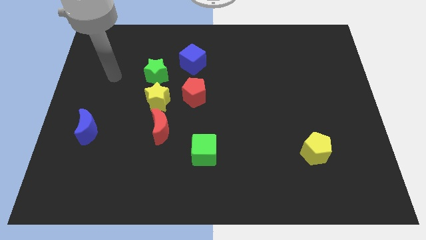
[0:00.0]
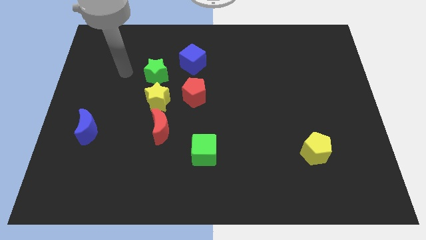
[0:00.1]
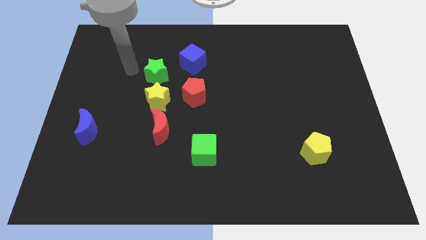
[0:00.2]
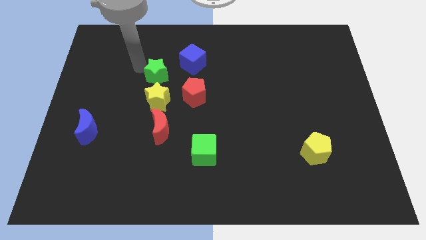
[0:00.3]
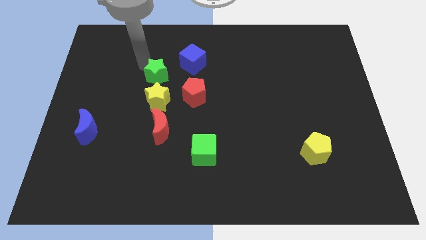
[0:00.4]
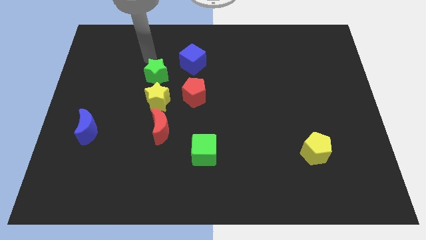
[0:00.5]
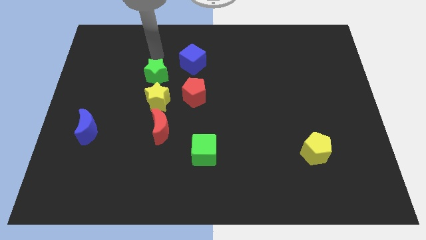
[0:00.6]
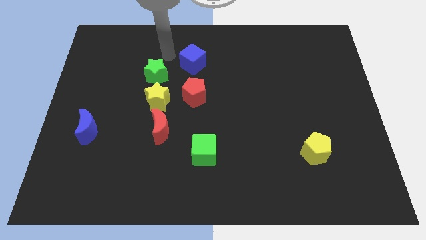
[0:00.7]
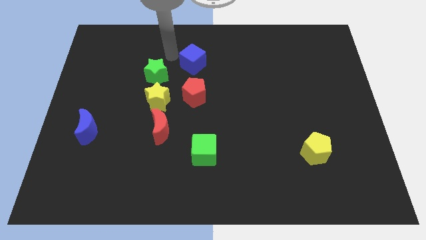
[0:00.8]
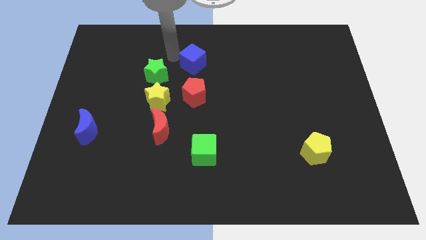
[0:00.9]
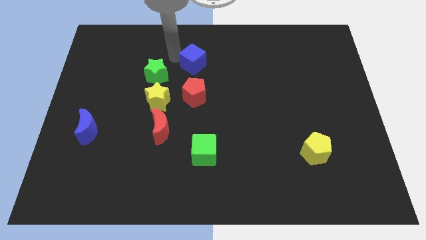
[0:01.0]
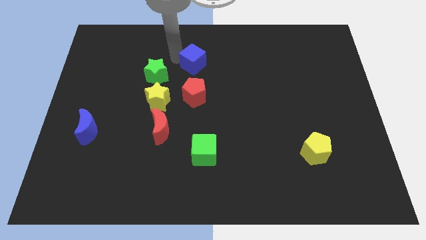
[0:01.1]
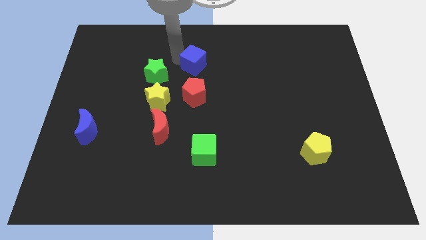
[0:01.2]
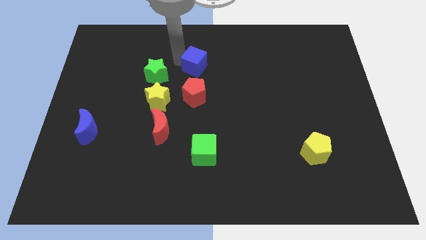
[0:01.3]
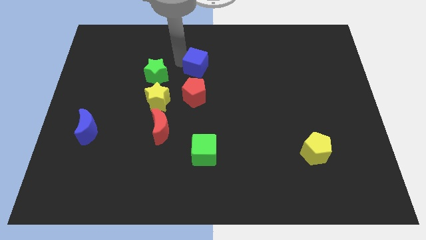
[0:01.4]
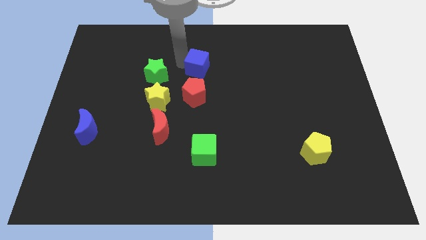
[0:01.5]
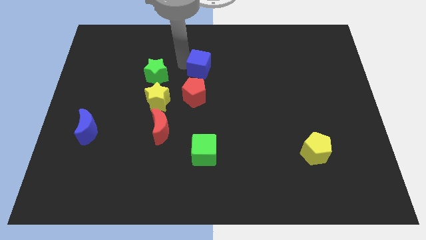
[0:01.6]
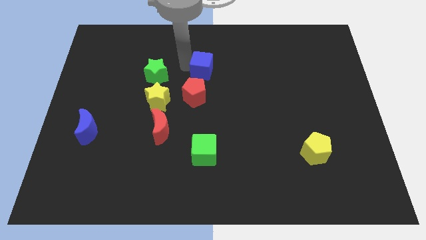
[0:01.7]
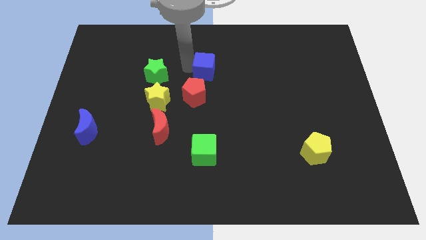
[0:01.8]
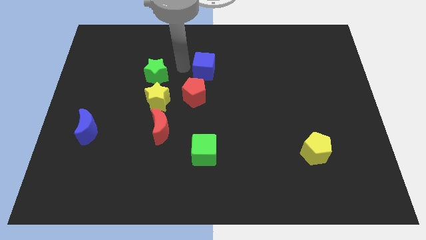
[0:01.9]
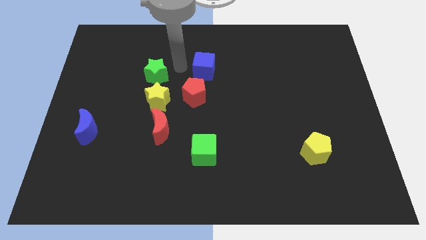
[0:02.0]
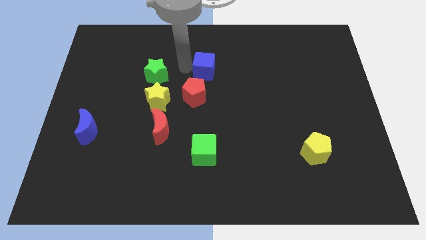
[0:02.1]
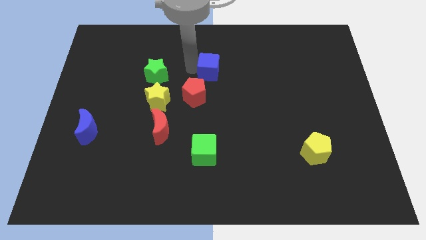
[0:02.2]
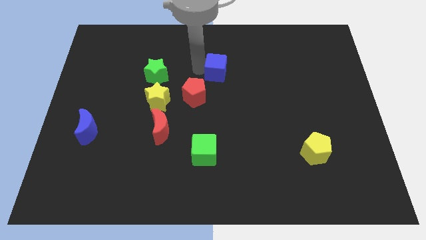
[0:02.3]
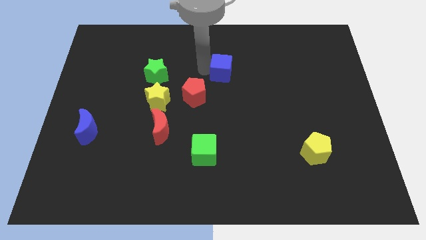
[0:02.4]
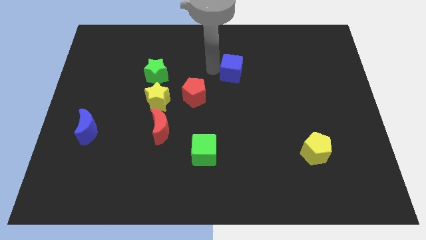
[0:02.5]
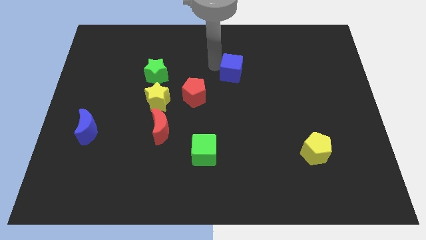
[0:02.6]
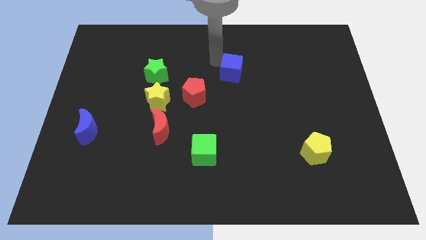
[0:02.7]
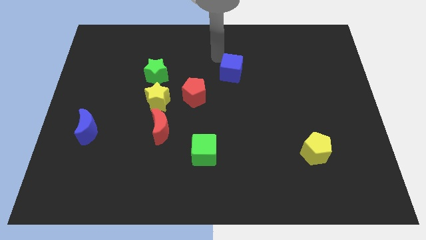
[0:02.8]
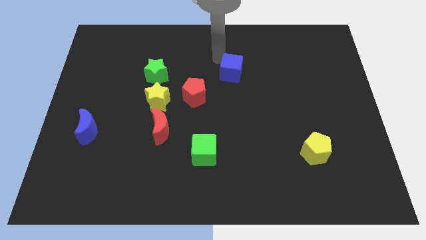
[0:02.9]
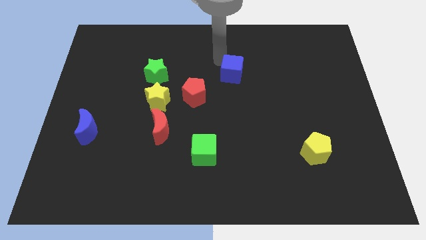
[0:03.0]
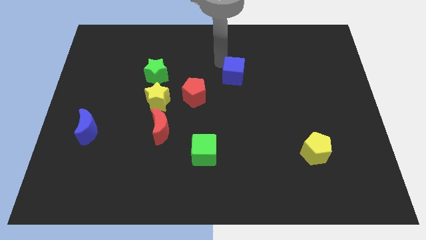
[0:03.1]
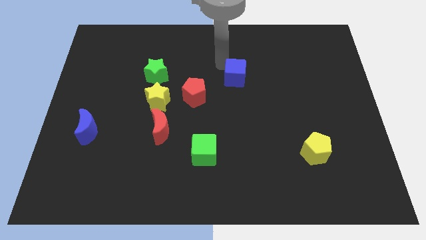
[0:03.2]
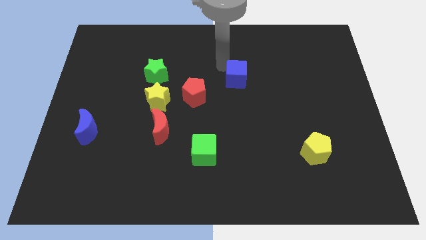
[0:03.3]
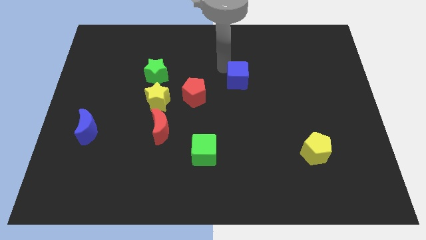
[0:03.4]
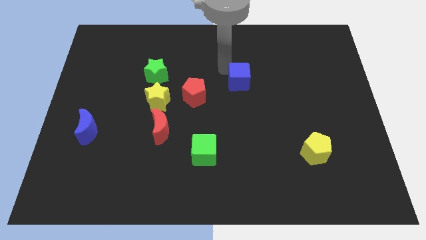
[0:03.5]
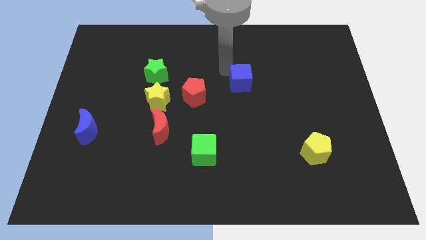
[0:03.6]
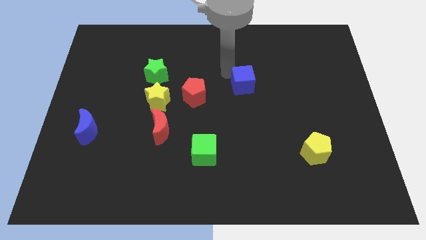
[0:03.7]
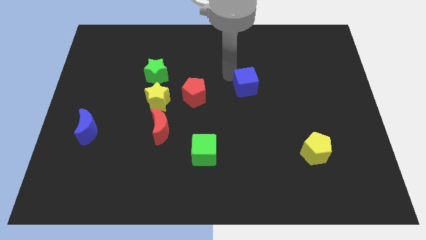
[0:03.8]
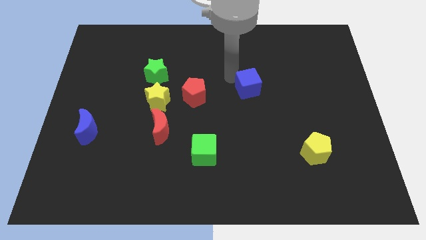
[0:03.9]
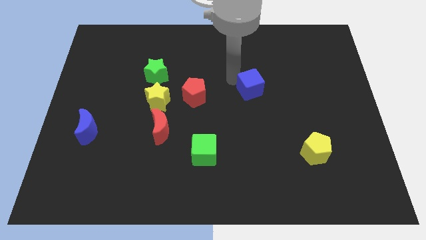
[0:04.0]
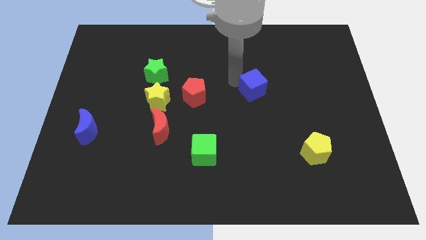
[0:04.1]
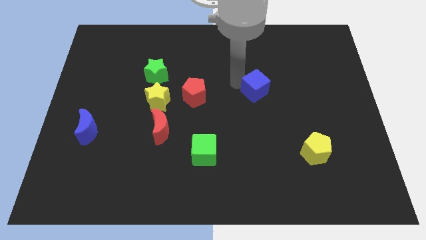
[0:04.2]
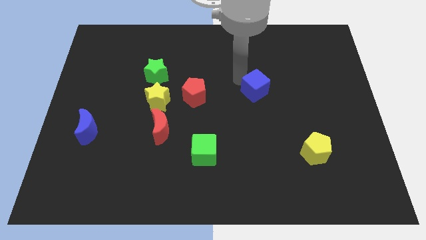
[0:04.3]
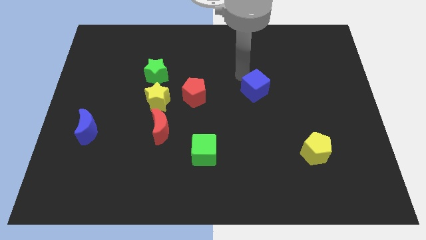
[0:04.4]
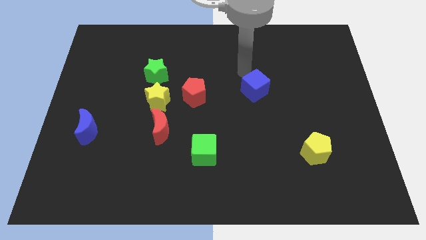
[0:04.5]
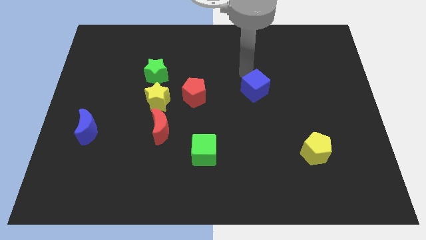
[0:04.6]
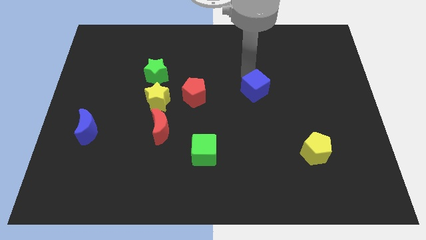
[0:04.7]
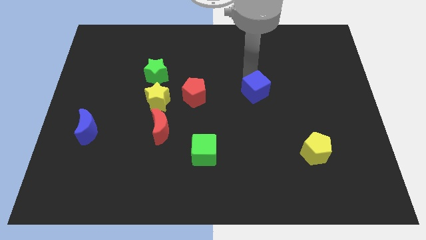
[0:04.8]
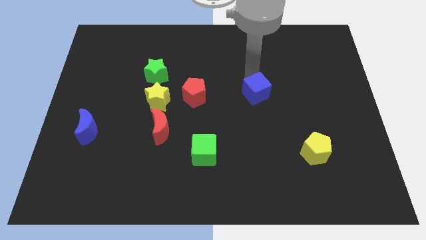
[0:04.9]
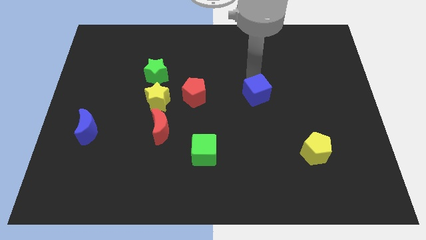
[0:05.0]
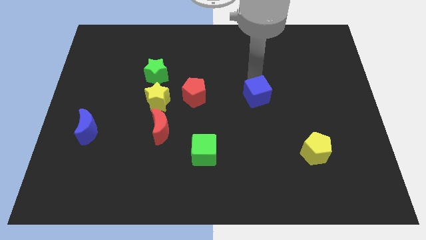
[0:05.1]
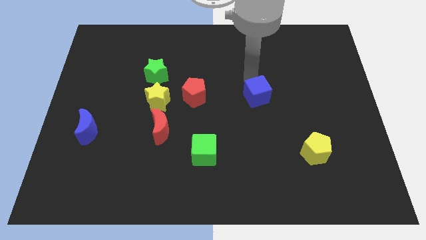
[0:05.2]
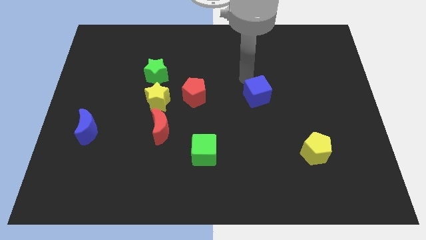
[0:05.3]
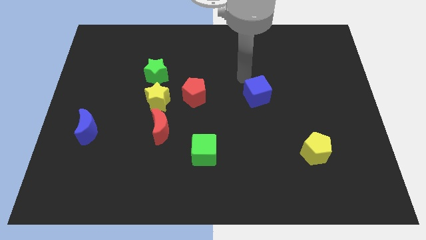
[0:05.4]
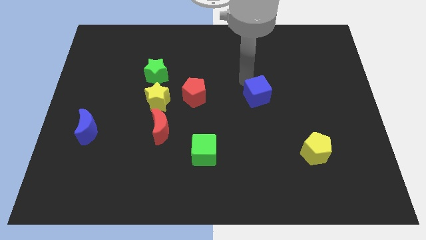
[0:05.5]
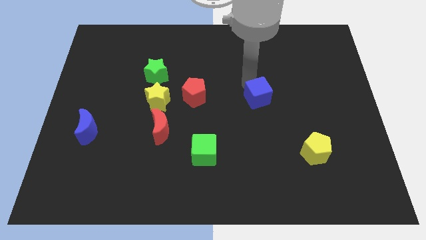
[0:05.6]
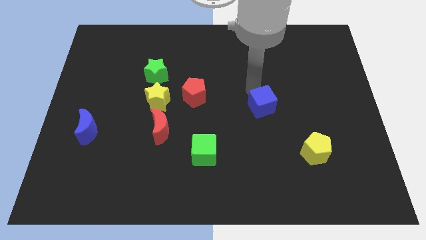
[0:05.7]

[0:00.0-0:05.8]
move the blue cube down and right

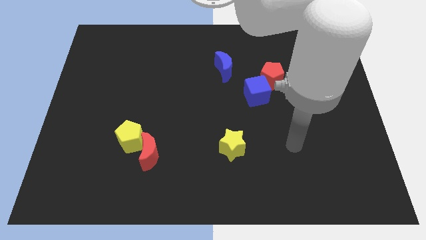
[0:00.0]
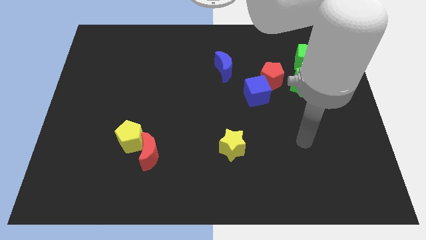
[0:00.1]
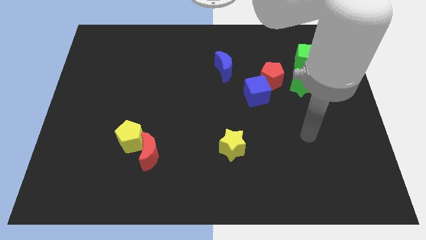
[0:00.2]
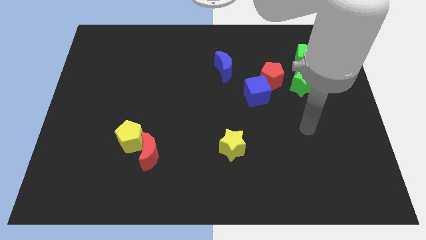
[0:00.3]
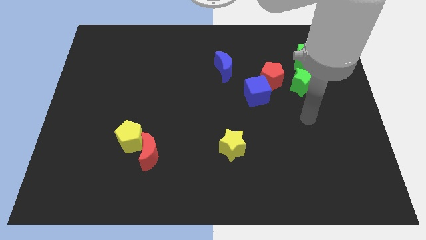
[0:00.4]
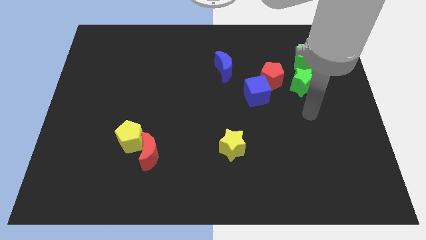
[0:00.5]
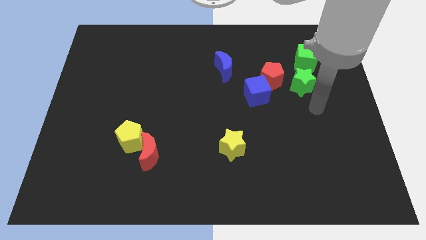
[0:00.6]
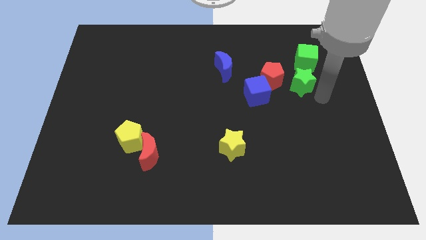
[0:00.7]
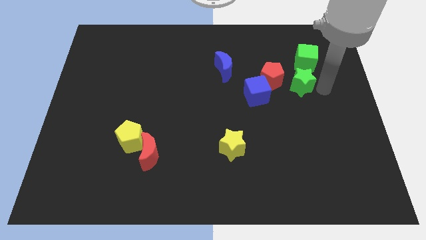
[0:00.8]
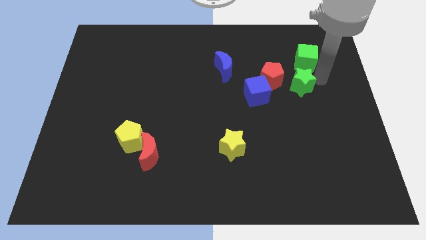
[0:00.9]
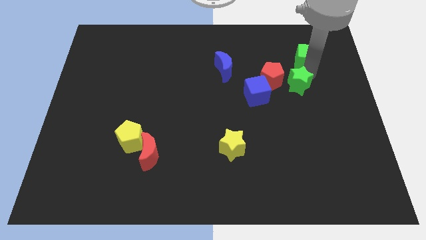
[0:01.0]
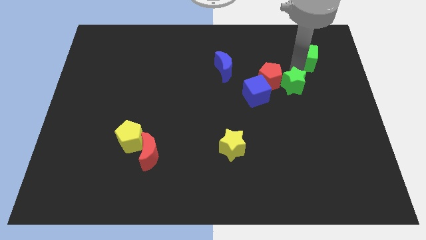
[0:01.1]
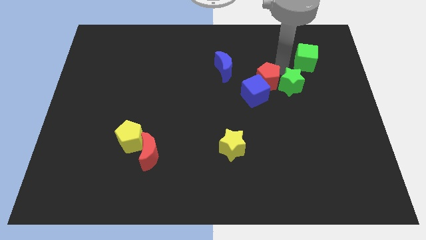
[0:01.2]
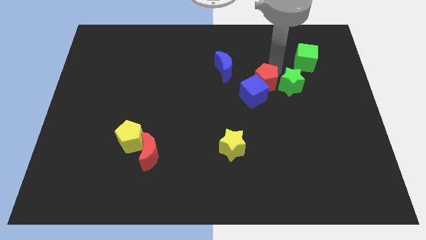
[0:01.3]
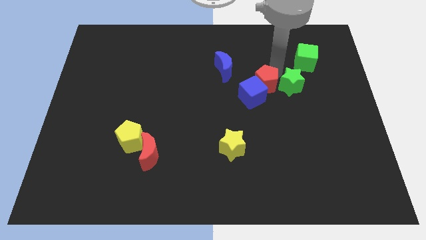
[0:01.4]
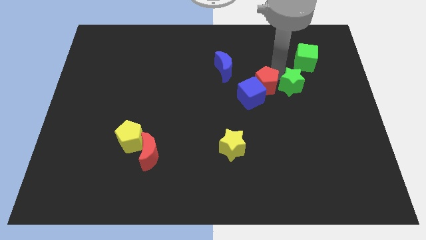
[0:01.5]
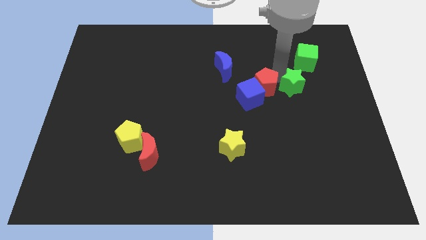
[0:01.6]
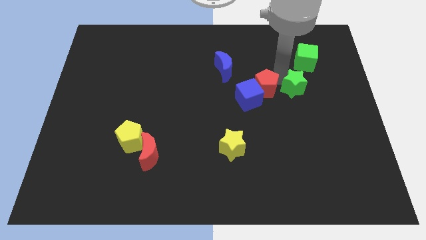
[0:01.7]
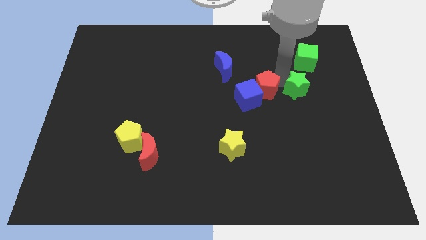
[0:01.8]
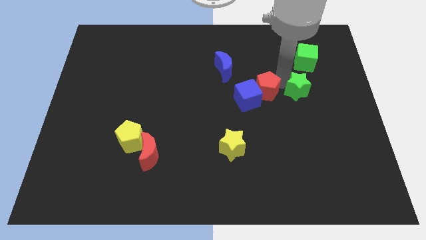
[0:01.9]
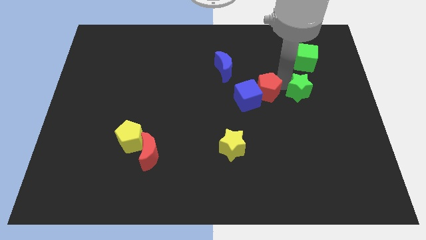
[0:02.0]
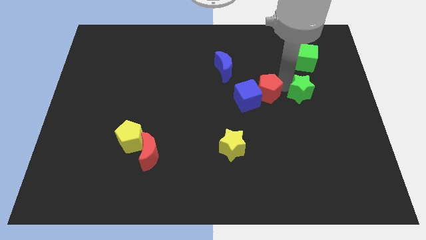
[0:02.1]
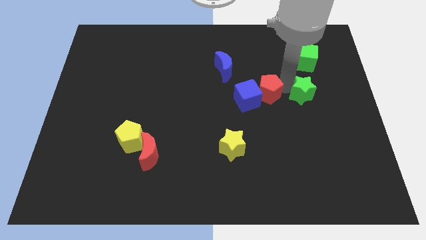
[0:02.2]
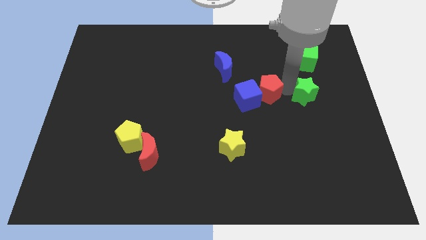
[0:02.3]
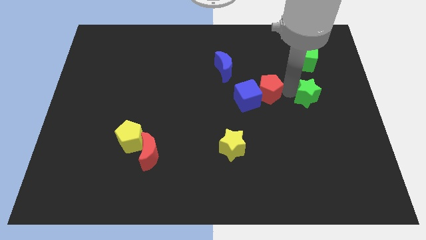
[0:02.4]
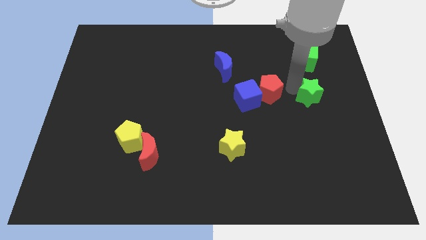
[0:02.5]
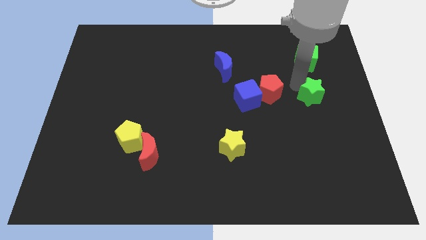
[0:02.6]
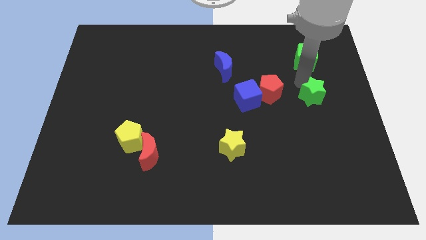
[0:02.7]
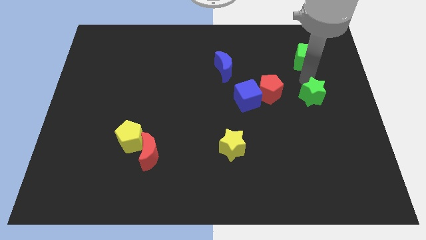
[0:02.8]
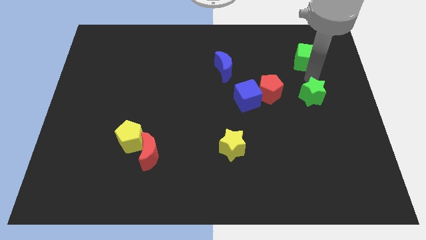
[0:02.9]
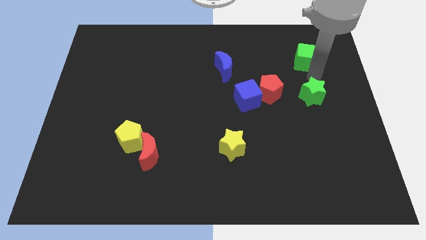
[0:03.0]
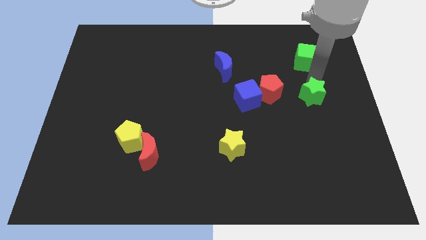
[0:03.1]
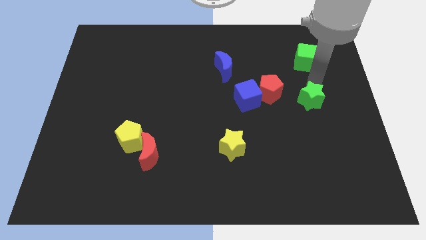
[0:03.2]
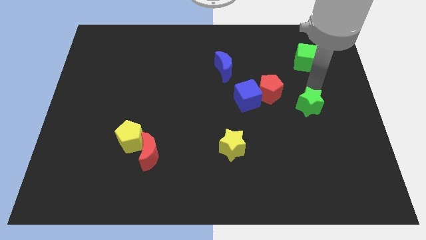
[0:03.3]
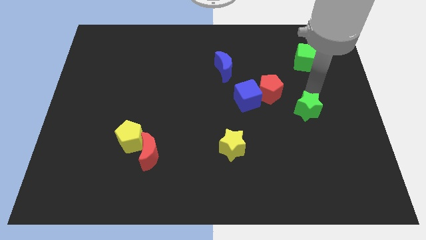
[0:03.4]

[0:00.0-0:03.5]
push the green star down a little
